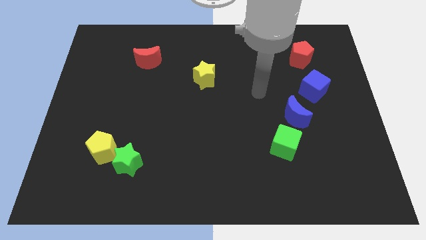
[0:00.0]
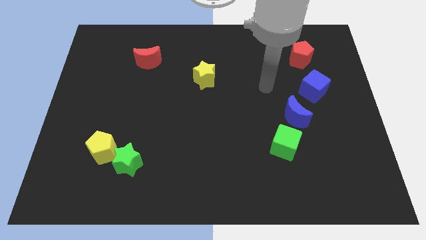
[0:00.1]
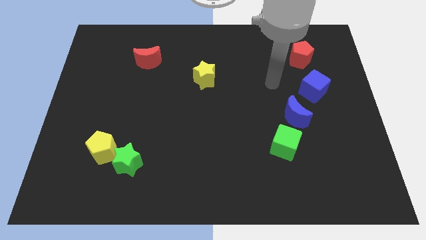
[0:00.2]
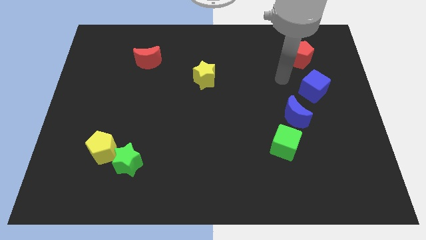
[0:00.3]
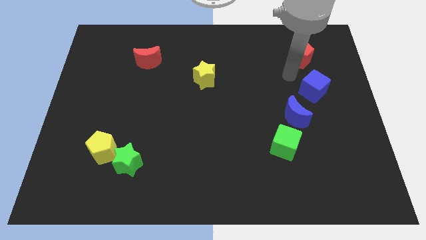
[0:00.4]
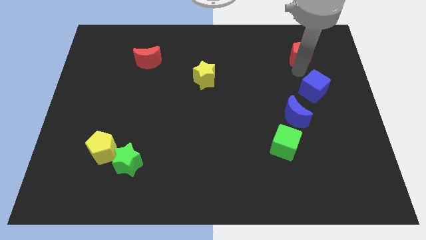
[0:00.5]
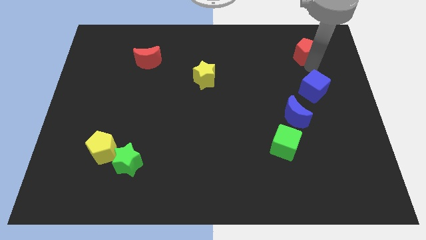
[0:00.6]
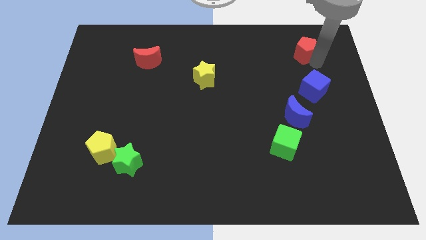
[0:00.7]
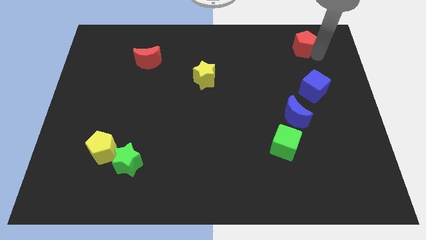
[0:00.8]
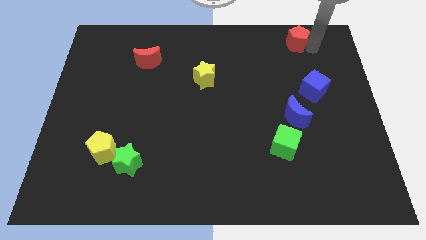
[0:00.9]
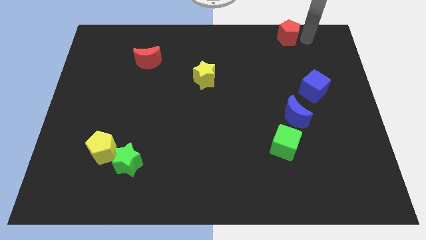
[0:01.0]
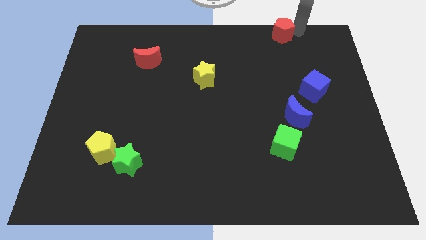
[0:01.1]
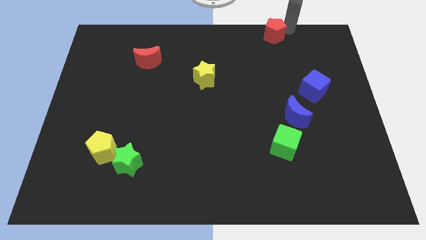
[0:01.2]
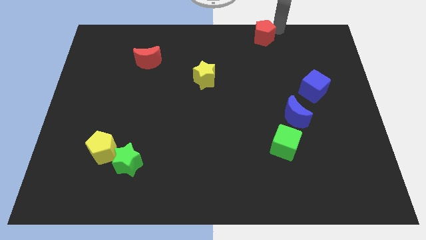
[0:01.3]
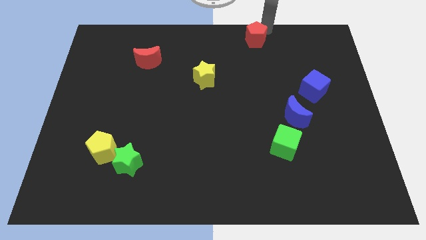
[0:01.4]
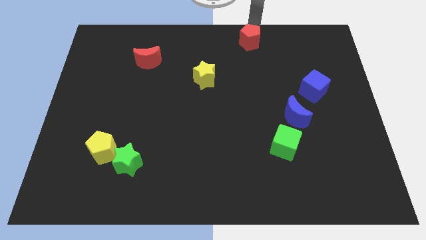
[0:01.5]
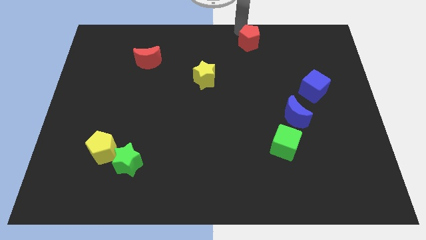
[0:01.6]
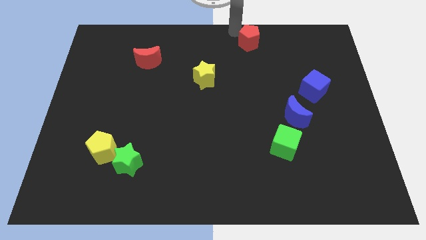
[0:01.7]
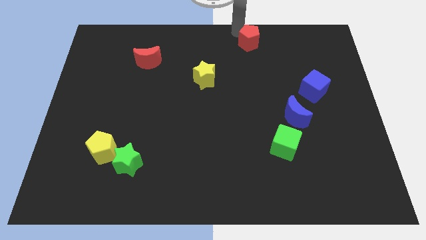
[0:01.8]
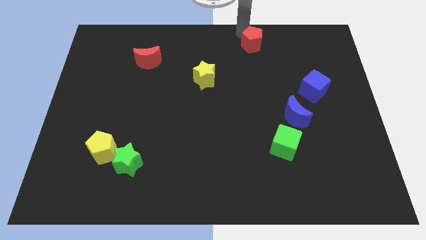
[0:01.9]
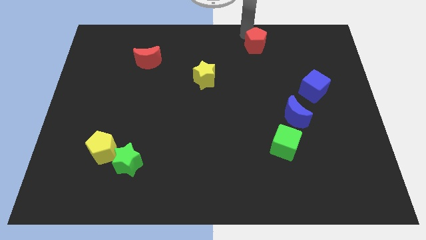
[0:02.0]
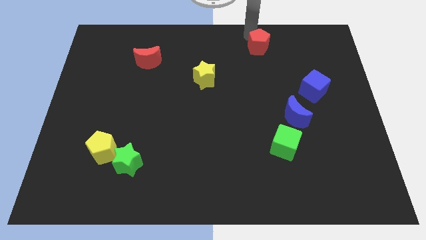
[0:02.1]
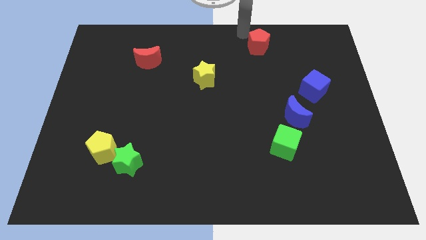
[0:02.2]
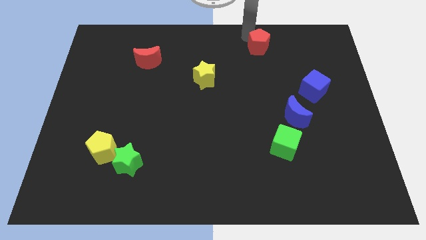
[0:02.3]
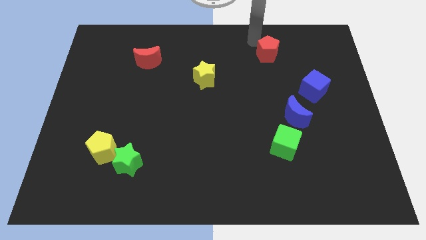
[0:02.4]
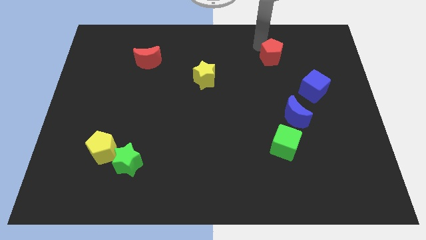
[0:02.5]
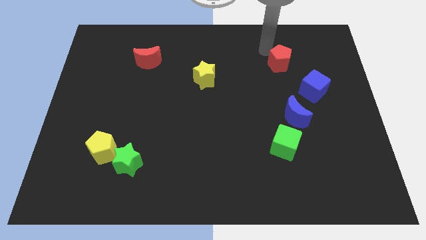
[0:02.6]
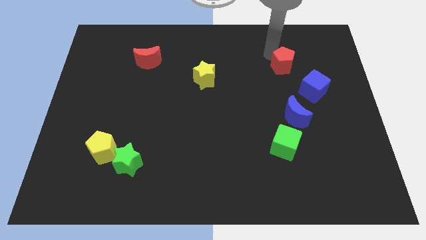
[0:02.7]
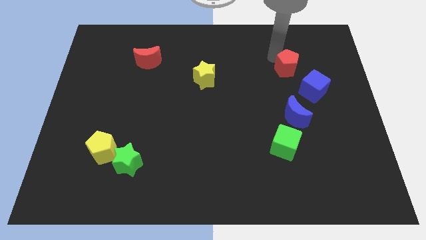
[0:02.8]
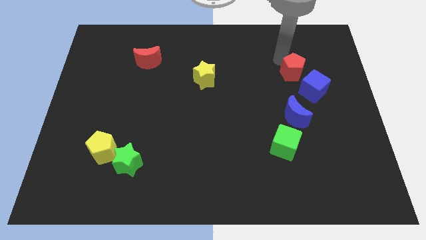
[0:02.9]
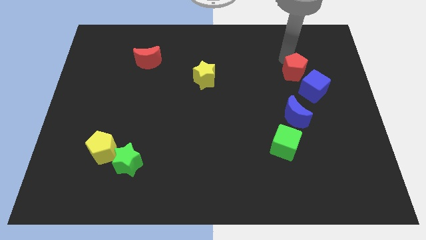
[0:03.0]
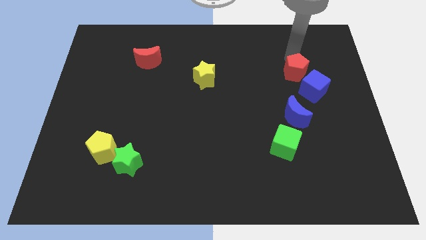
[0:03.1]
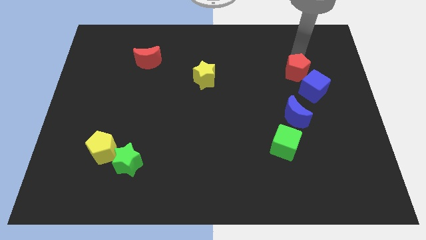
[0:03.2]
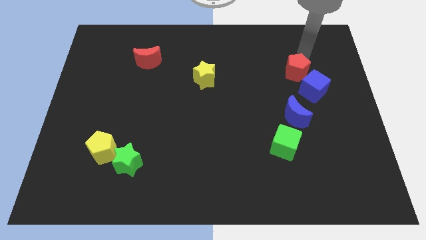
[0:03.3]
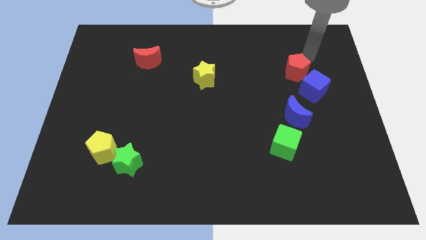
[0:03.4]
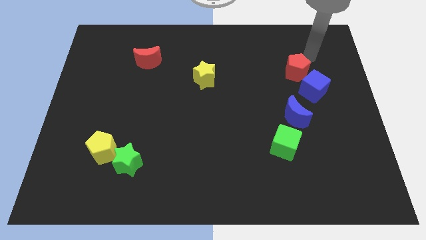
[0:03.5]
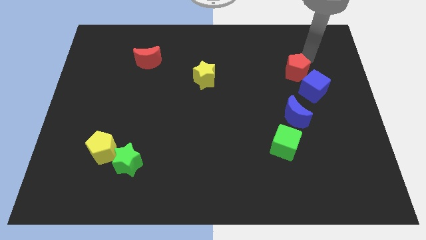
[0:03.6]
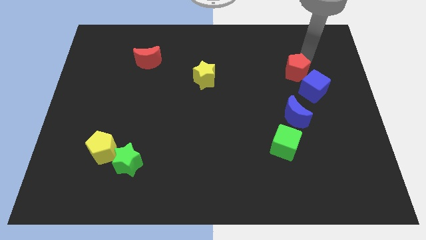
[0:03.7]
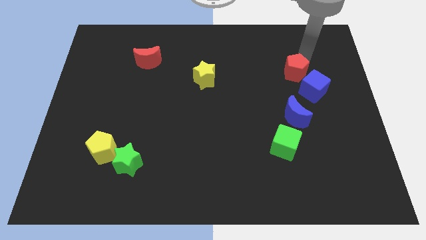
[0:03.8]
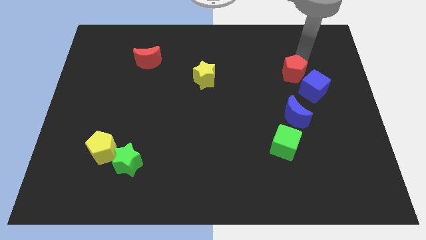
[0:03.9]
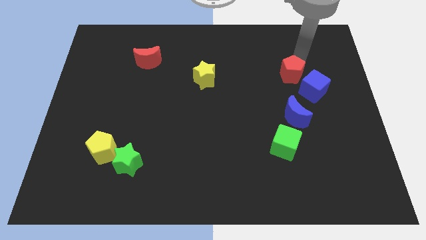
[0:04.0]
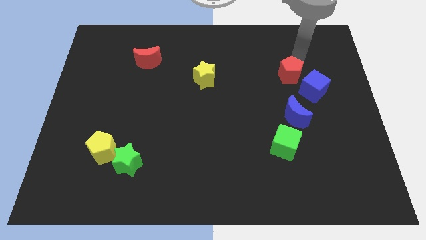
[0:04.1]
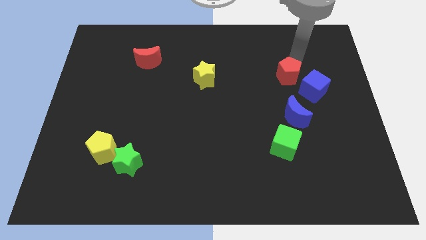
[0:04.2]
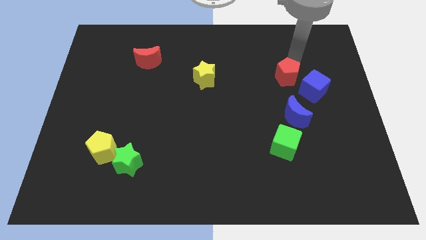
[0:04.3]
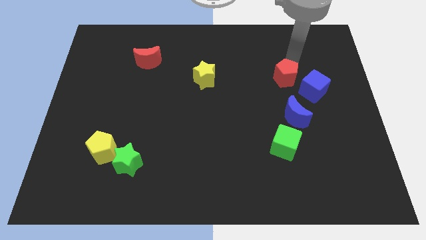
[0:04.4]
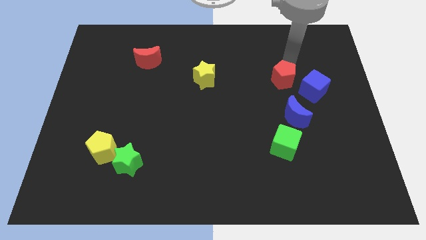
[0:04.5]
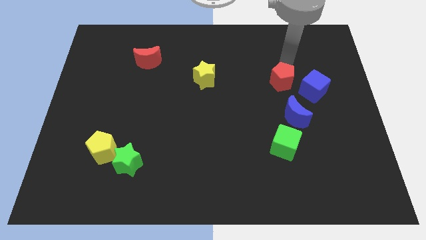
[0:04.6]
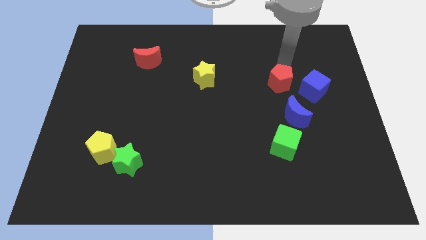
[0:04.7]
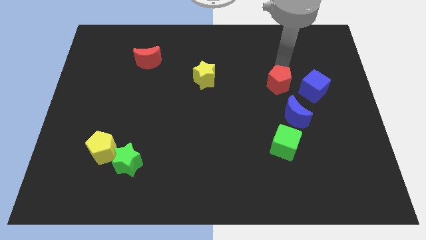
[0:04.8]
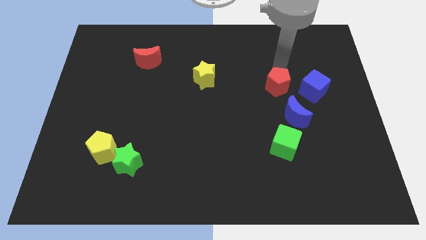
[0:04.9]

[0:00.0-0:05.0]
put the red pentagon diagonally up and to the left of the blue moon

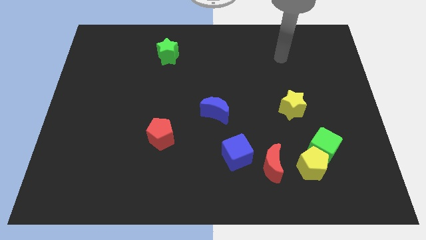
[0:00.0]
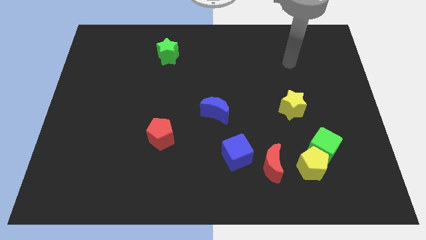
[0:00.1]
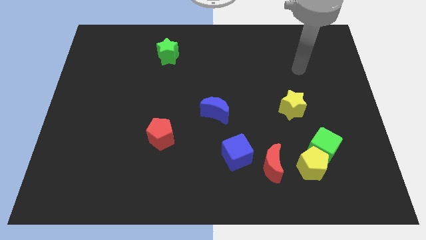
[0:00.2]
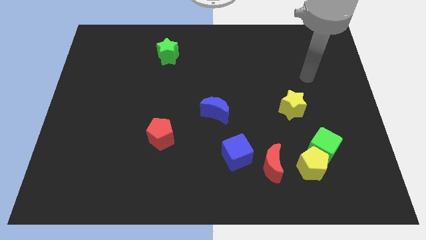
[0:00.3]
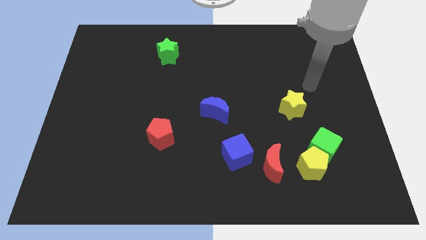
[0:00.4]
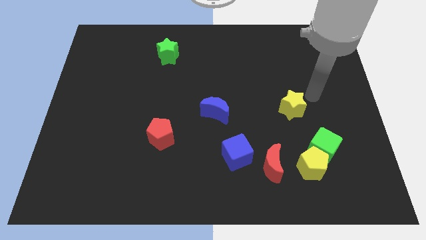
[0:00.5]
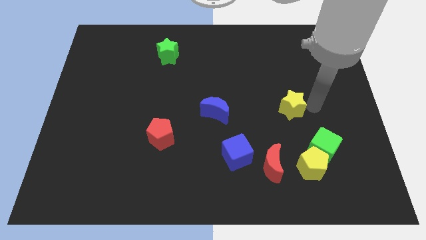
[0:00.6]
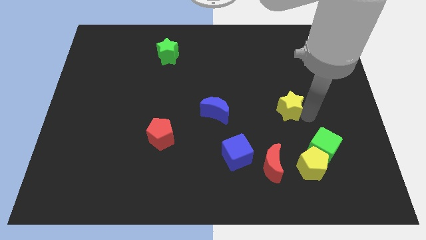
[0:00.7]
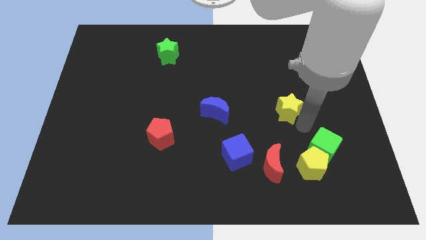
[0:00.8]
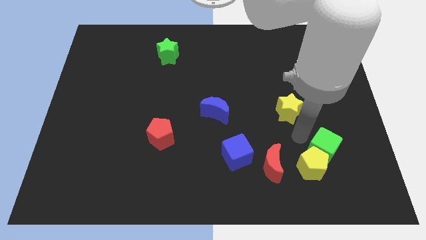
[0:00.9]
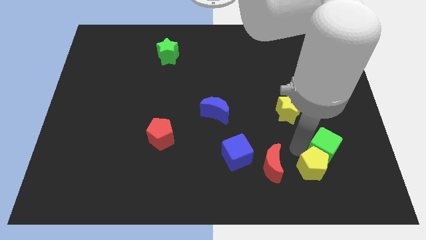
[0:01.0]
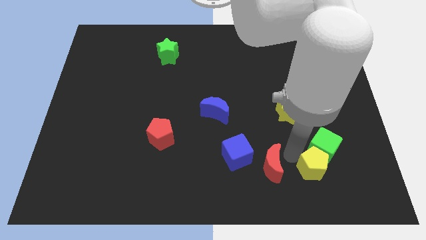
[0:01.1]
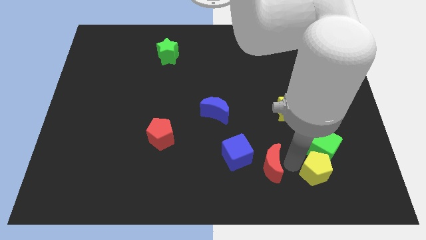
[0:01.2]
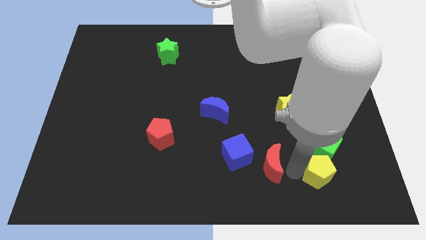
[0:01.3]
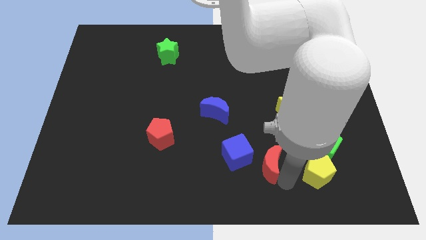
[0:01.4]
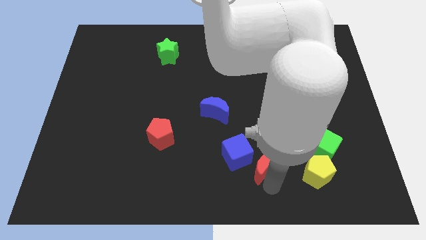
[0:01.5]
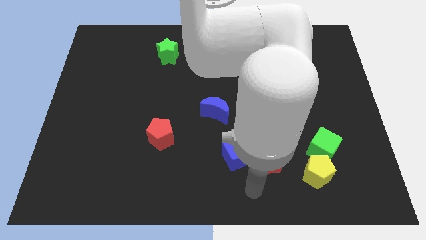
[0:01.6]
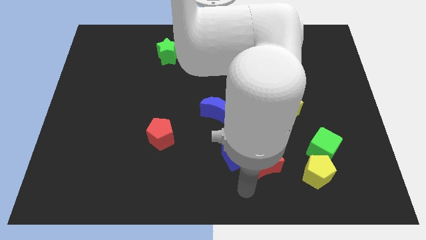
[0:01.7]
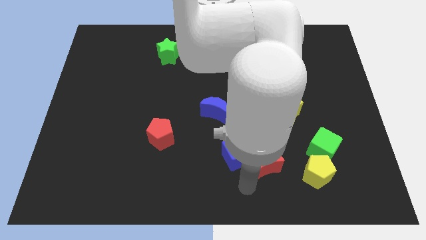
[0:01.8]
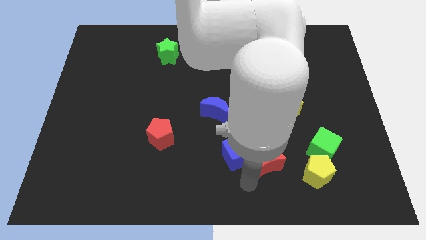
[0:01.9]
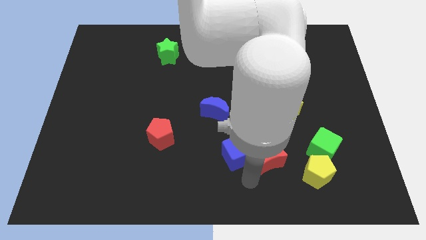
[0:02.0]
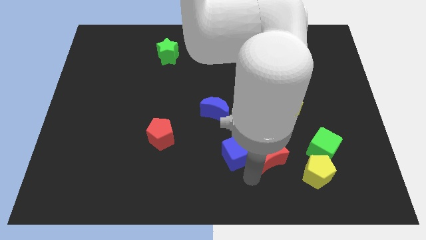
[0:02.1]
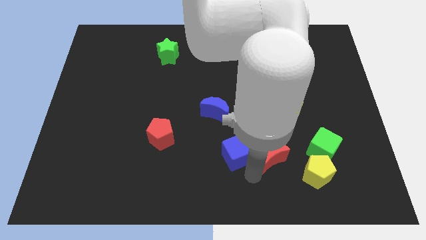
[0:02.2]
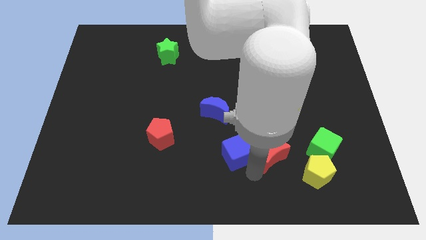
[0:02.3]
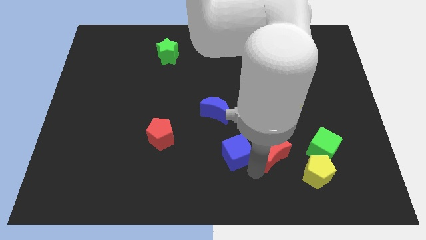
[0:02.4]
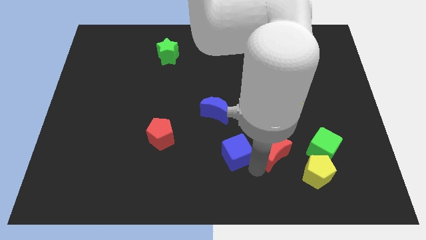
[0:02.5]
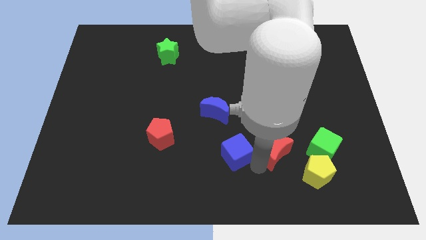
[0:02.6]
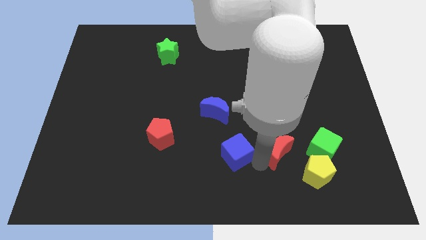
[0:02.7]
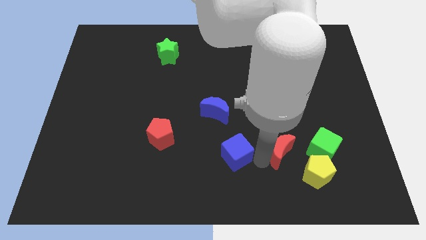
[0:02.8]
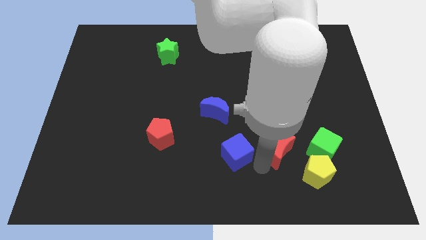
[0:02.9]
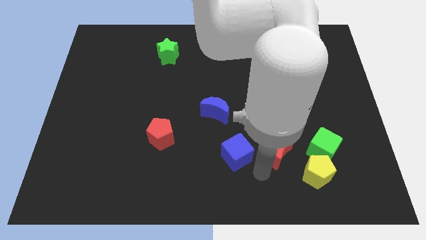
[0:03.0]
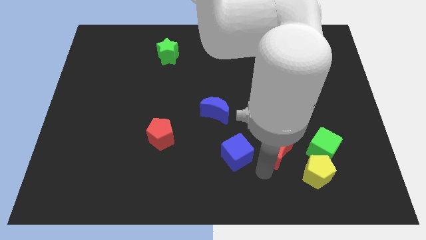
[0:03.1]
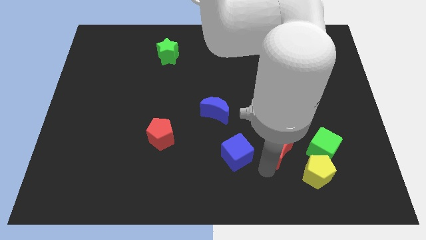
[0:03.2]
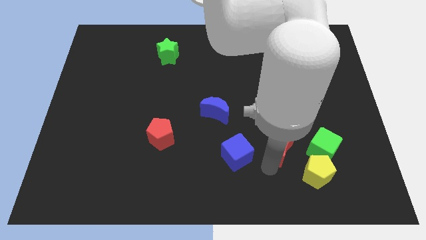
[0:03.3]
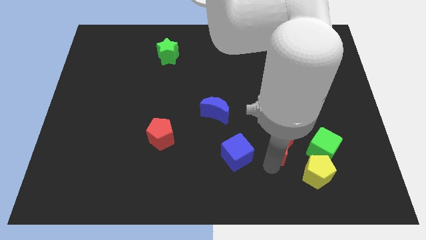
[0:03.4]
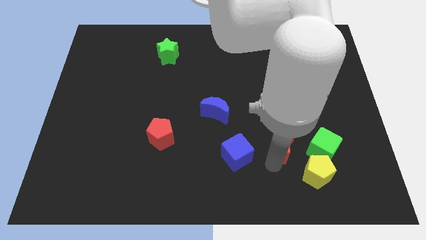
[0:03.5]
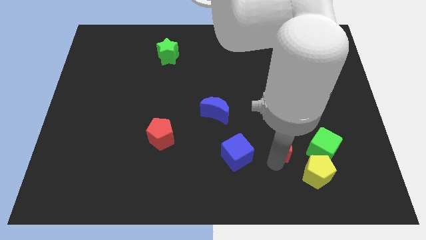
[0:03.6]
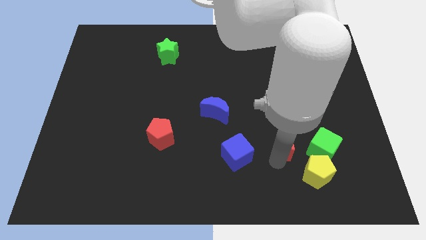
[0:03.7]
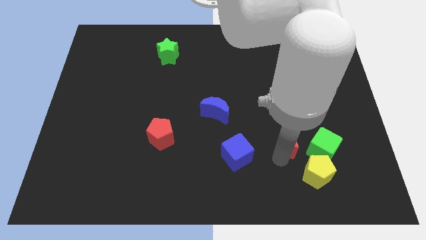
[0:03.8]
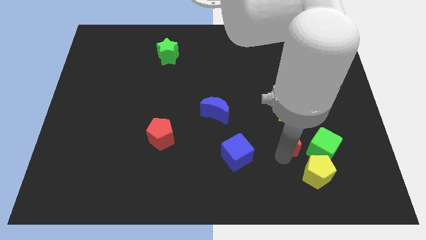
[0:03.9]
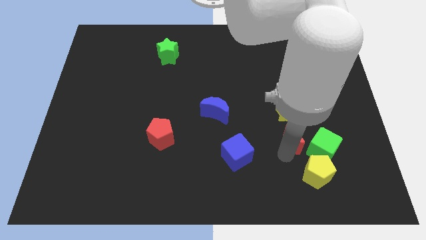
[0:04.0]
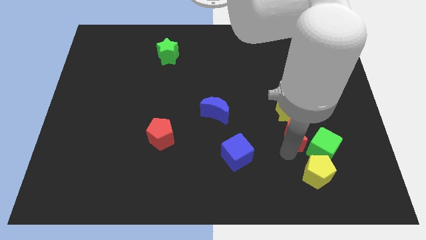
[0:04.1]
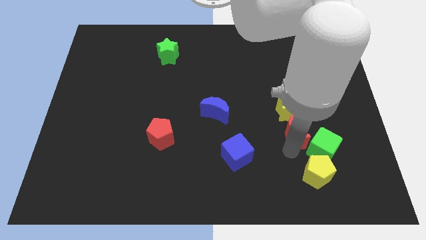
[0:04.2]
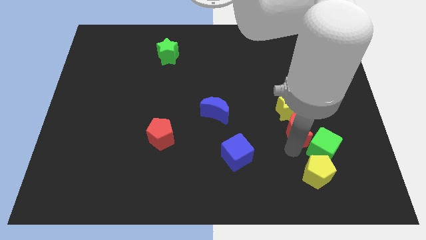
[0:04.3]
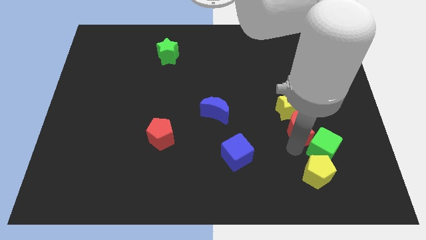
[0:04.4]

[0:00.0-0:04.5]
put the red moon to the top side of the green cube
